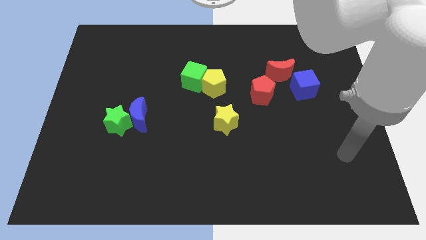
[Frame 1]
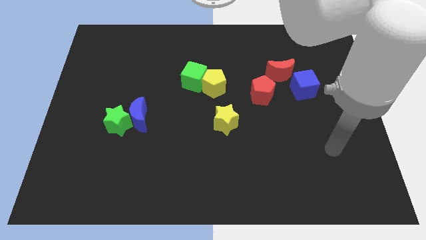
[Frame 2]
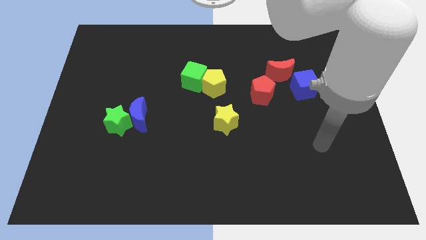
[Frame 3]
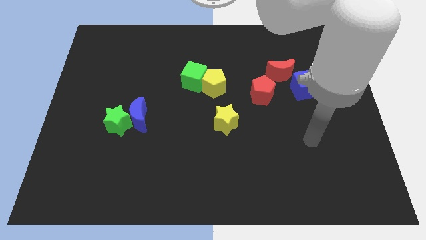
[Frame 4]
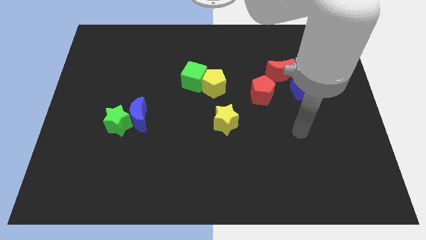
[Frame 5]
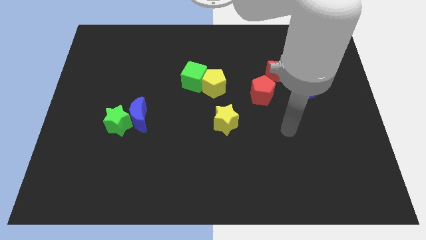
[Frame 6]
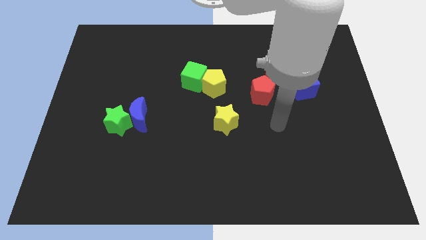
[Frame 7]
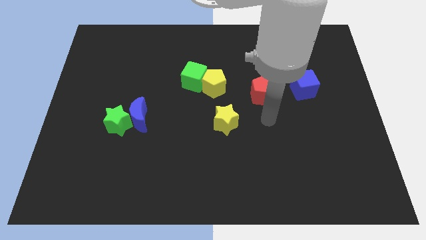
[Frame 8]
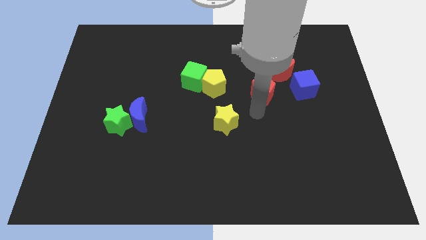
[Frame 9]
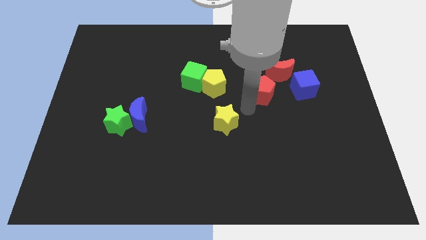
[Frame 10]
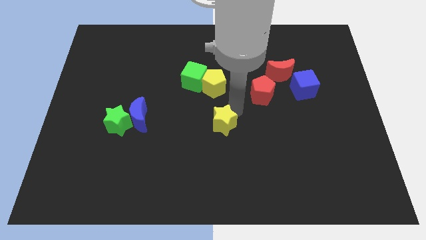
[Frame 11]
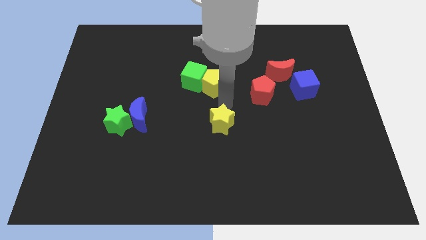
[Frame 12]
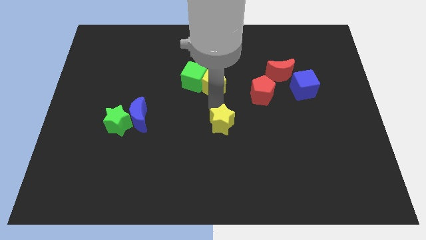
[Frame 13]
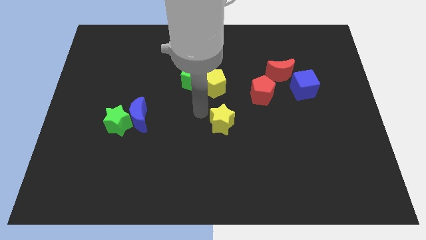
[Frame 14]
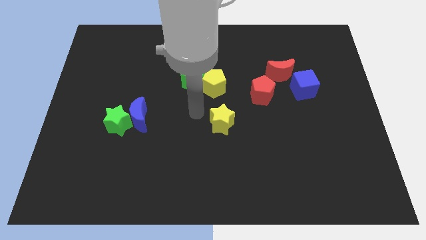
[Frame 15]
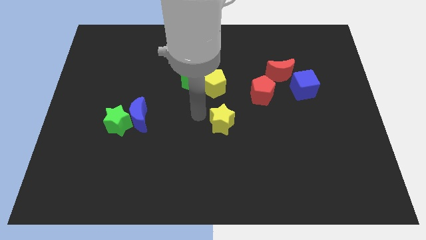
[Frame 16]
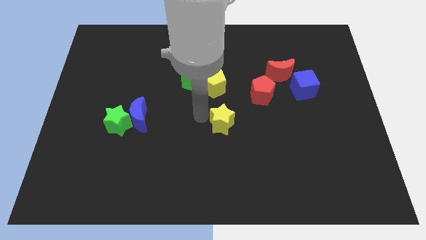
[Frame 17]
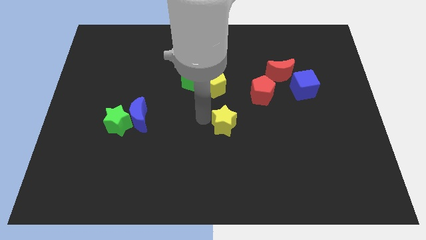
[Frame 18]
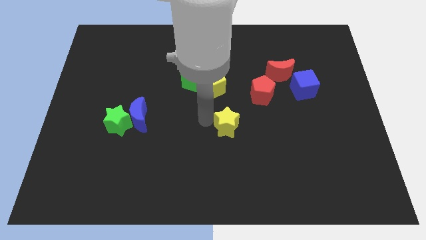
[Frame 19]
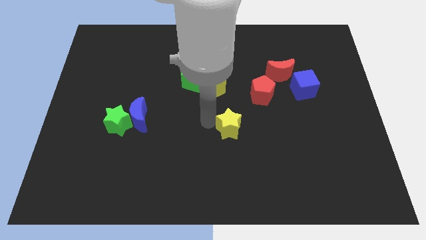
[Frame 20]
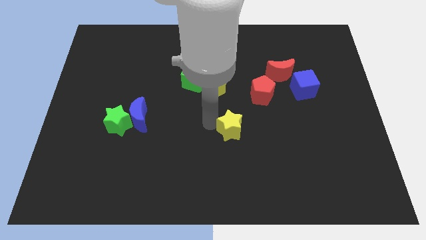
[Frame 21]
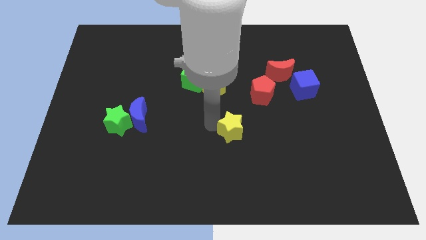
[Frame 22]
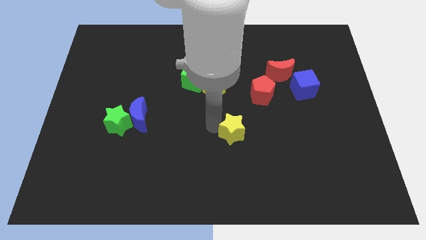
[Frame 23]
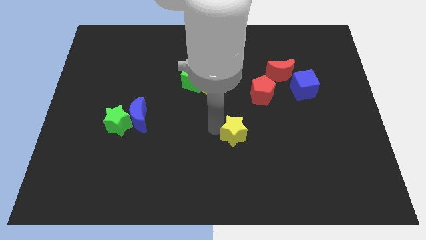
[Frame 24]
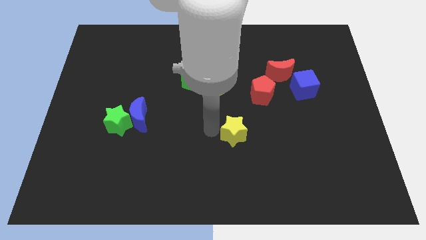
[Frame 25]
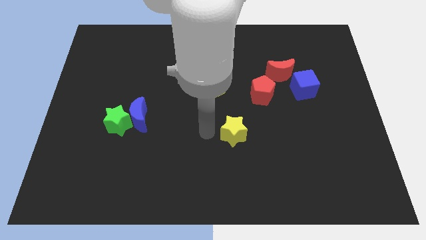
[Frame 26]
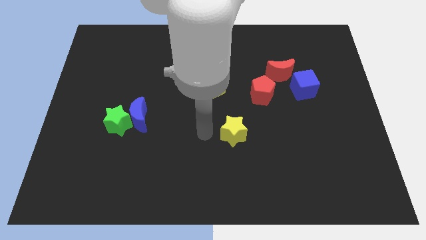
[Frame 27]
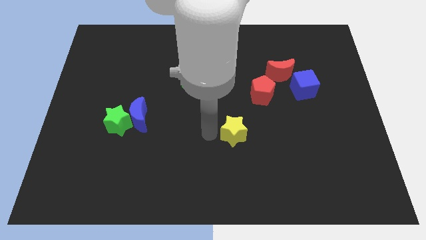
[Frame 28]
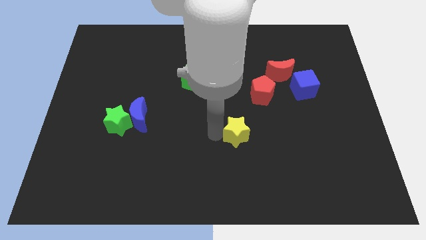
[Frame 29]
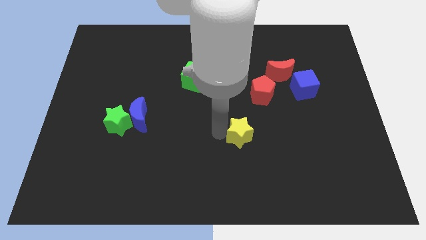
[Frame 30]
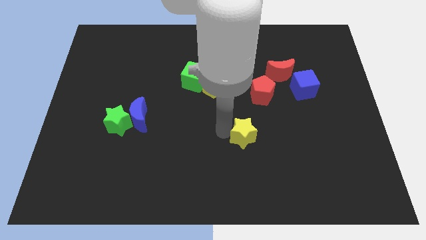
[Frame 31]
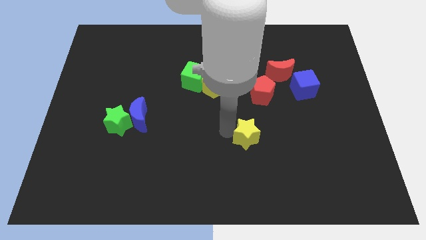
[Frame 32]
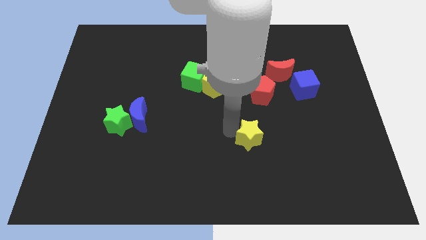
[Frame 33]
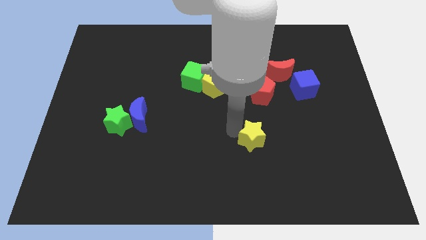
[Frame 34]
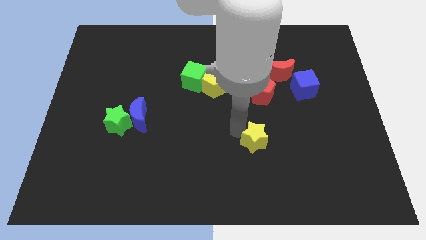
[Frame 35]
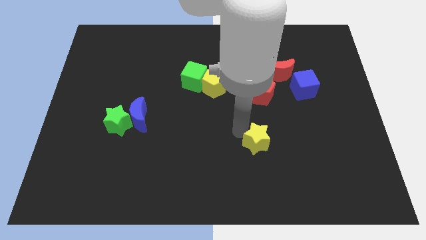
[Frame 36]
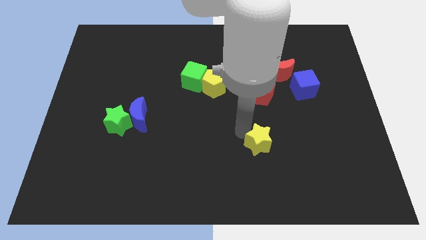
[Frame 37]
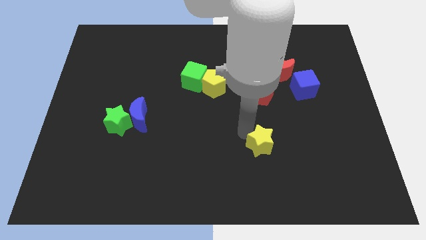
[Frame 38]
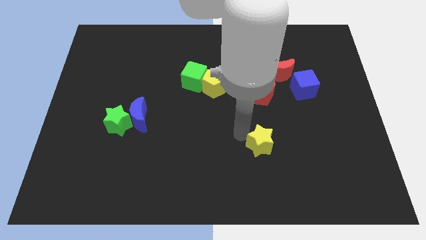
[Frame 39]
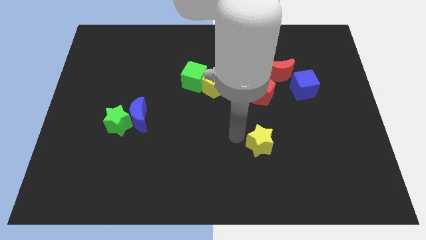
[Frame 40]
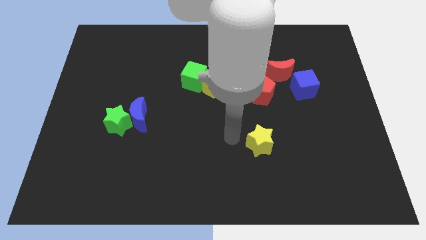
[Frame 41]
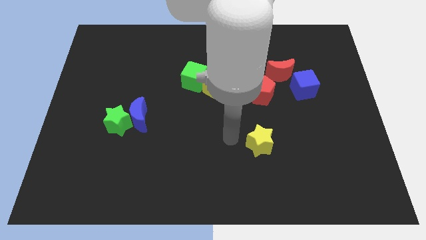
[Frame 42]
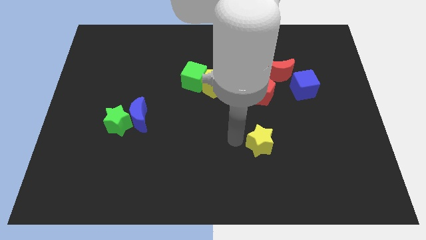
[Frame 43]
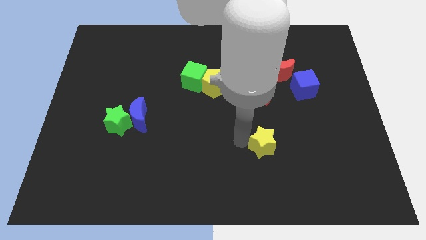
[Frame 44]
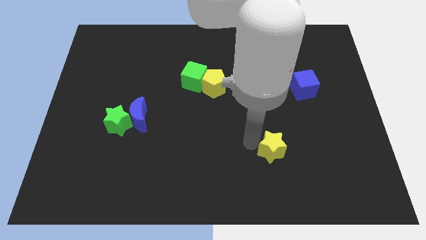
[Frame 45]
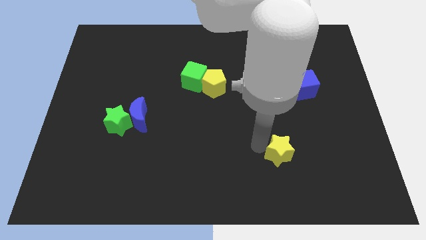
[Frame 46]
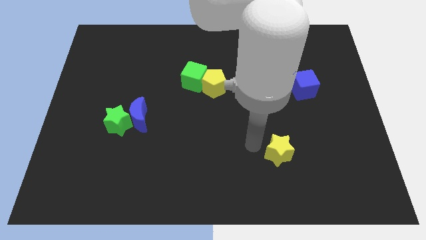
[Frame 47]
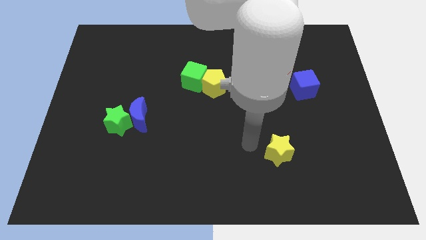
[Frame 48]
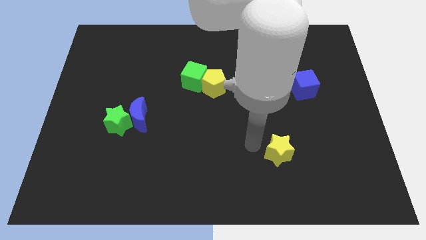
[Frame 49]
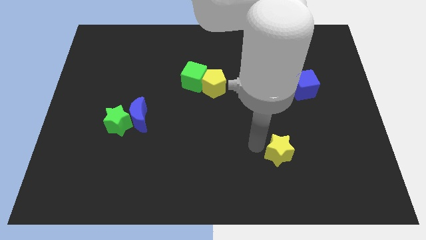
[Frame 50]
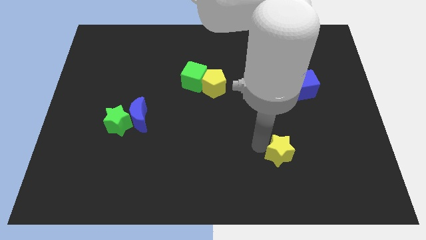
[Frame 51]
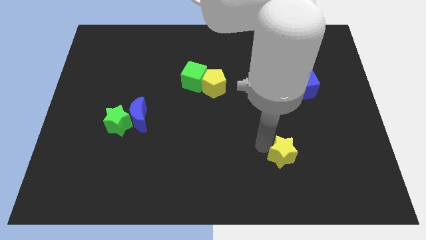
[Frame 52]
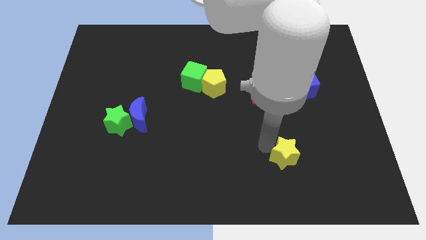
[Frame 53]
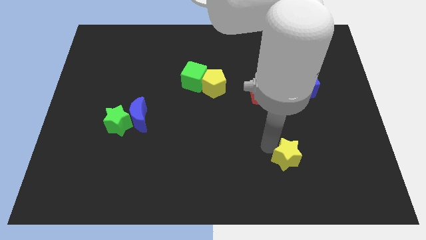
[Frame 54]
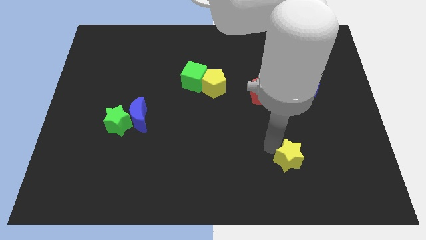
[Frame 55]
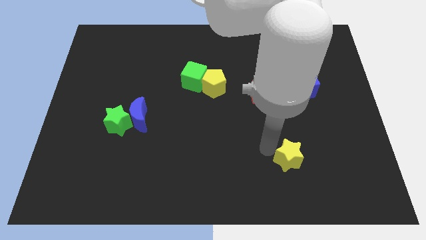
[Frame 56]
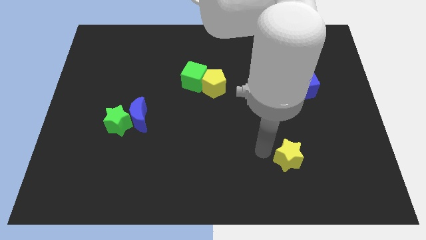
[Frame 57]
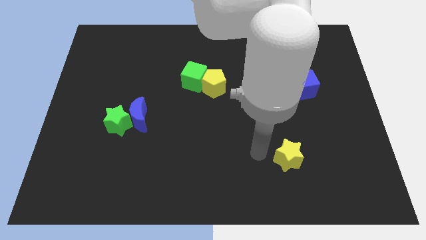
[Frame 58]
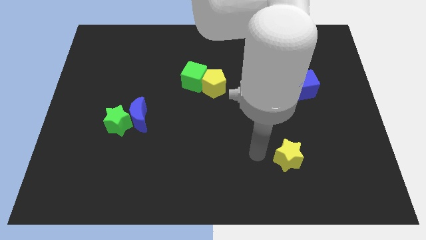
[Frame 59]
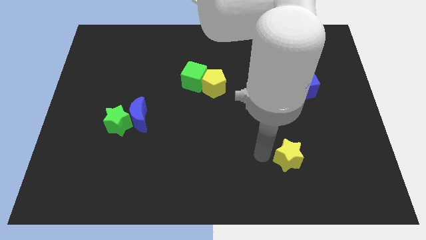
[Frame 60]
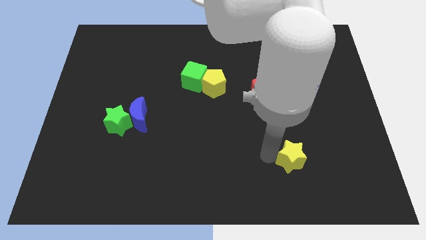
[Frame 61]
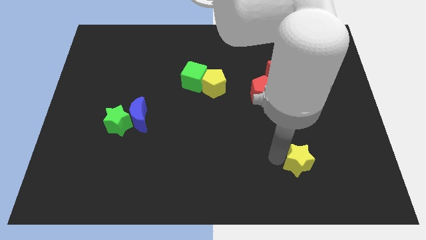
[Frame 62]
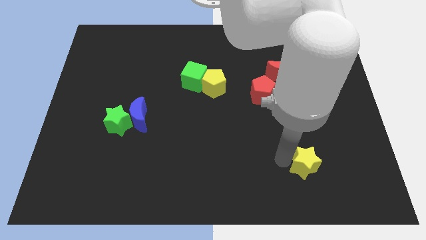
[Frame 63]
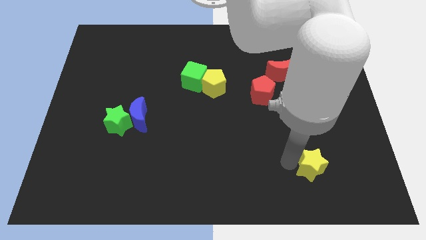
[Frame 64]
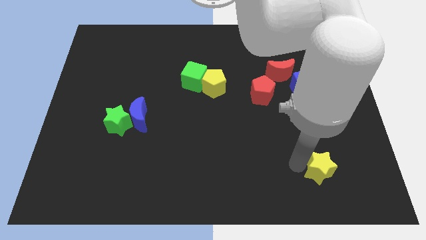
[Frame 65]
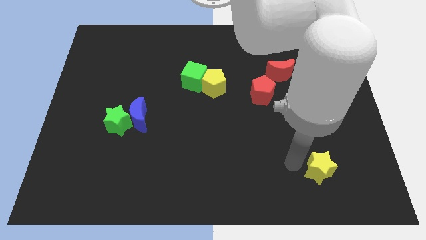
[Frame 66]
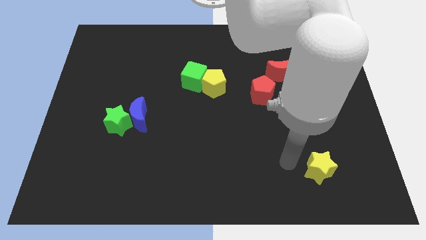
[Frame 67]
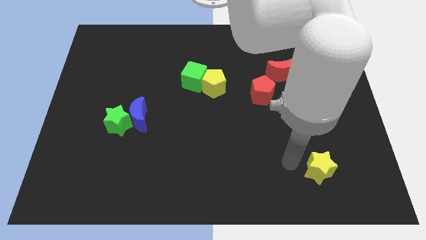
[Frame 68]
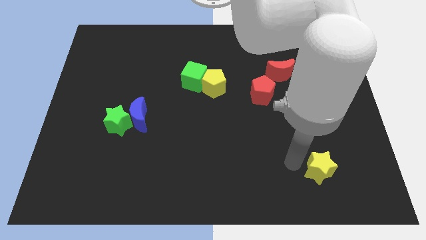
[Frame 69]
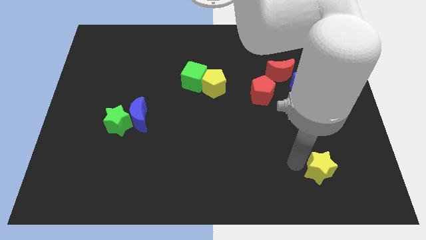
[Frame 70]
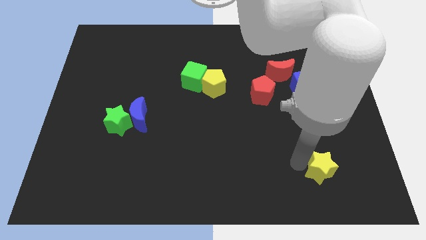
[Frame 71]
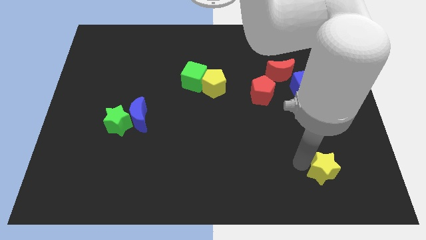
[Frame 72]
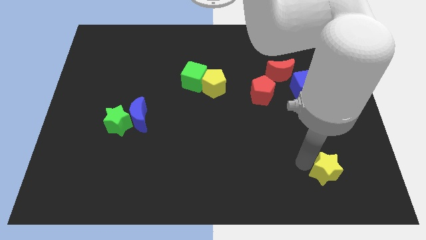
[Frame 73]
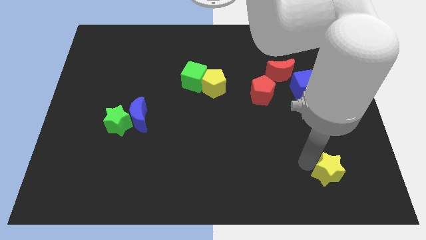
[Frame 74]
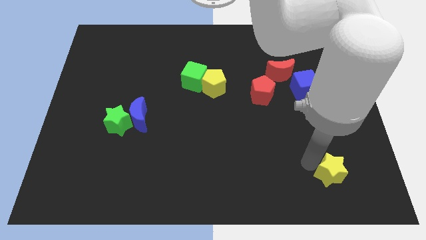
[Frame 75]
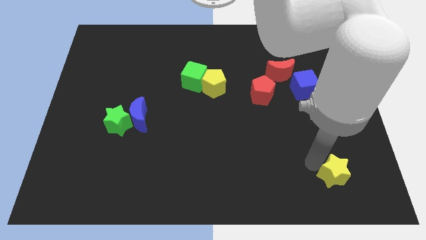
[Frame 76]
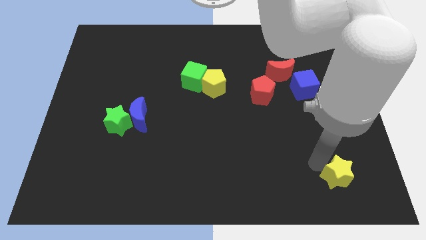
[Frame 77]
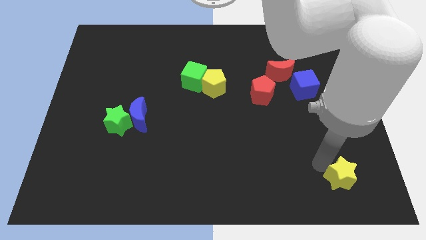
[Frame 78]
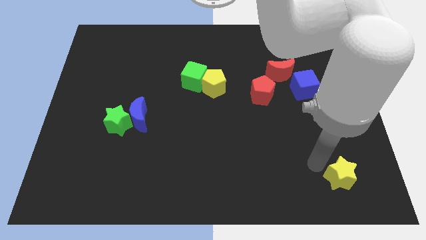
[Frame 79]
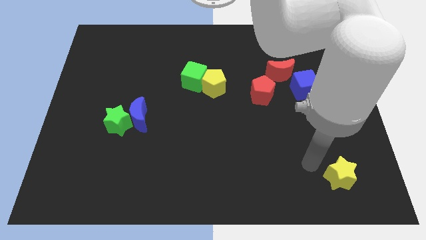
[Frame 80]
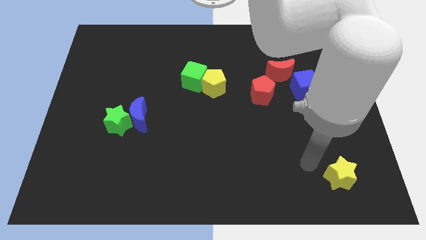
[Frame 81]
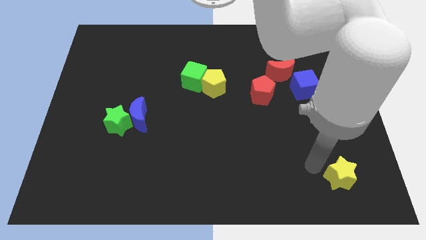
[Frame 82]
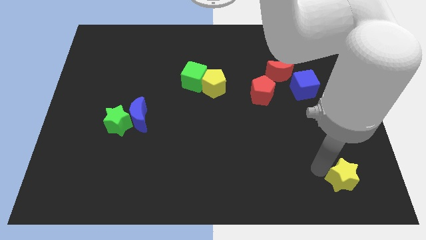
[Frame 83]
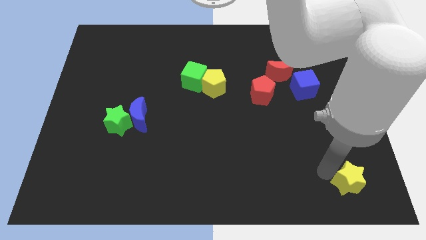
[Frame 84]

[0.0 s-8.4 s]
move the yellow star to the lower right corner
